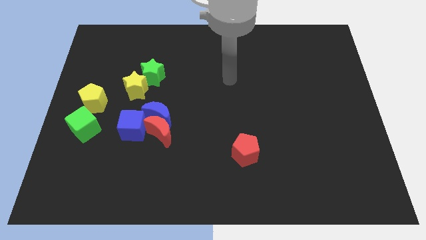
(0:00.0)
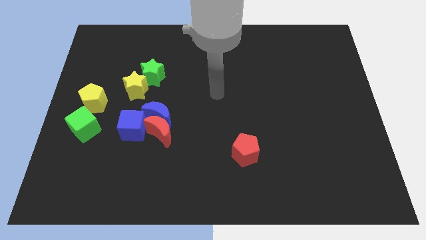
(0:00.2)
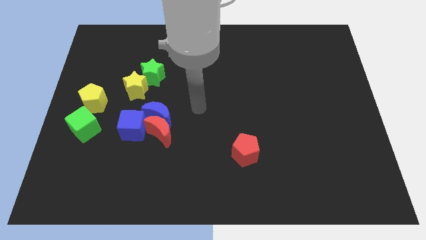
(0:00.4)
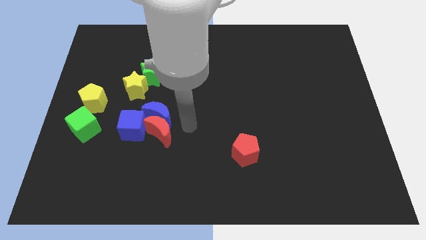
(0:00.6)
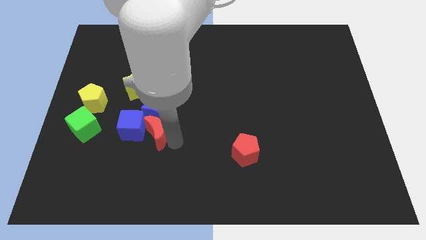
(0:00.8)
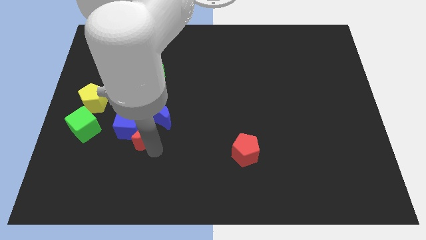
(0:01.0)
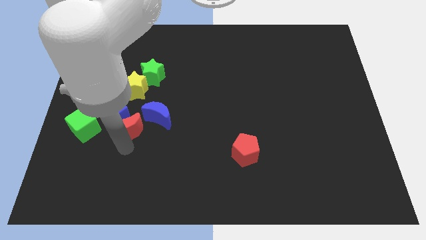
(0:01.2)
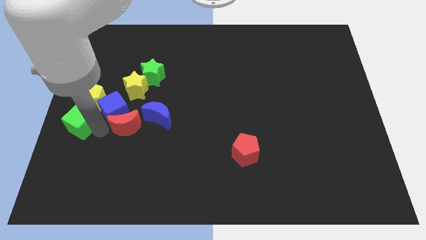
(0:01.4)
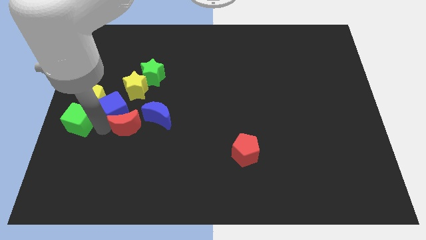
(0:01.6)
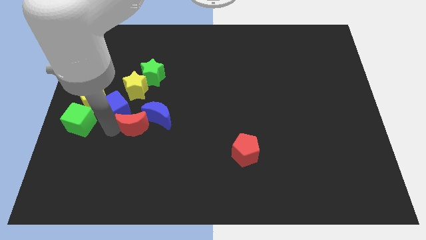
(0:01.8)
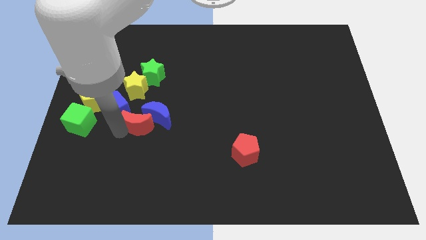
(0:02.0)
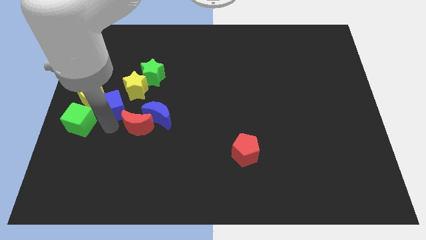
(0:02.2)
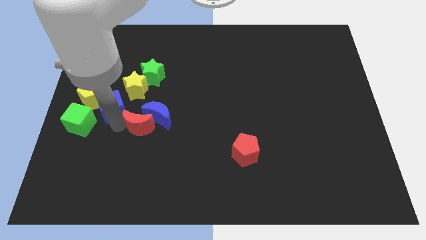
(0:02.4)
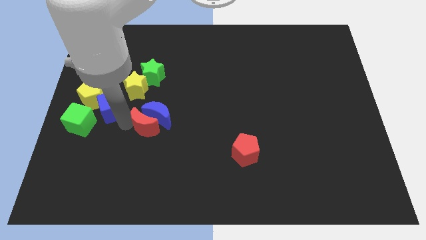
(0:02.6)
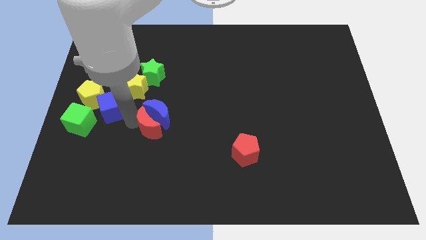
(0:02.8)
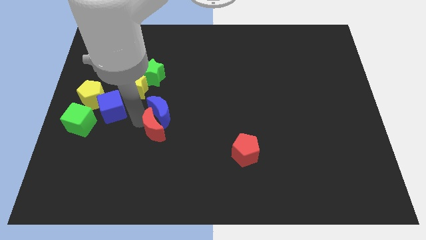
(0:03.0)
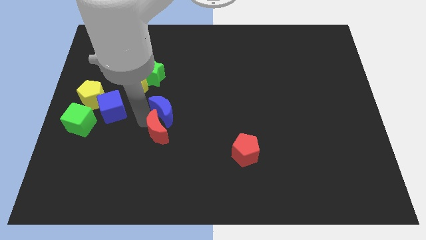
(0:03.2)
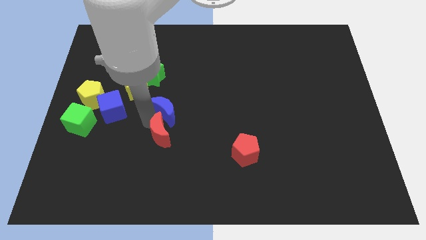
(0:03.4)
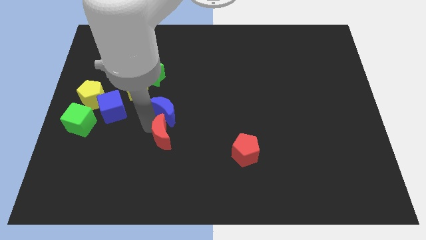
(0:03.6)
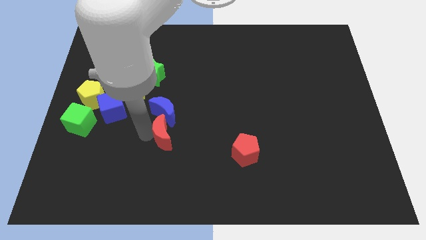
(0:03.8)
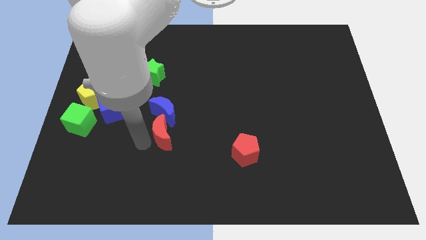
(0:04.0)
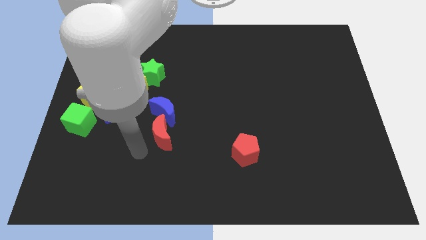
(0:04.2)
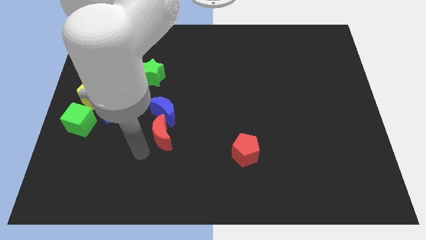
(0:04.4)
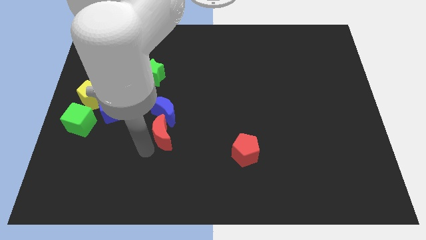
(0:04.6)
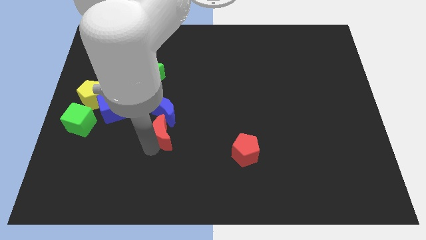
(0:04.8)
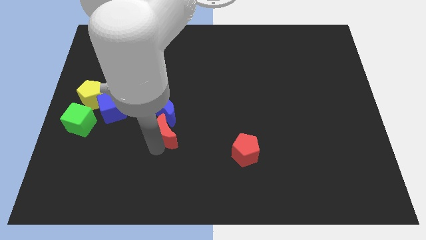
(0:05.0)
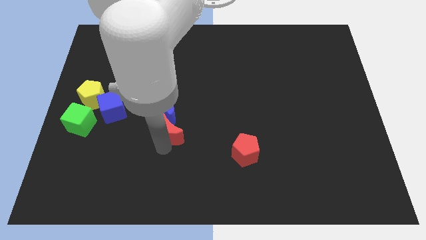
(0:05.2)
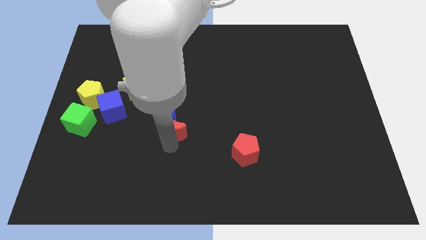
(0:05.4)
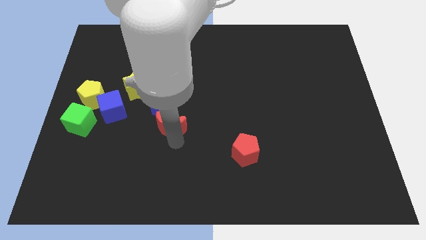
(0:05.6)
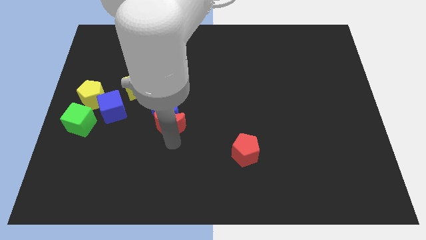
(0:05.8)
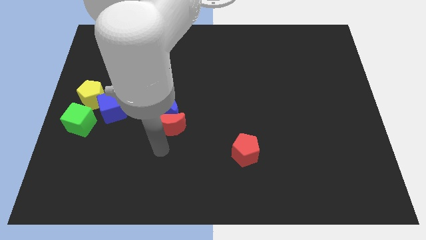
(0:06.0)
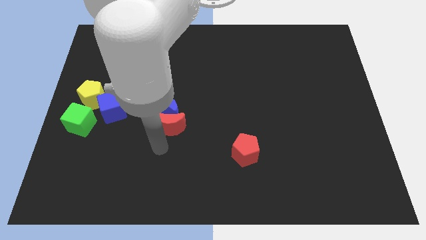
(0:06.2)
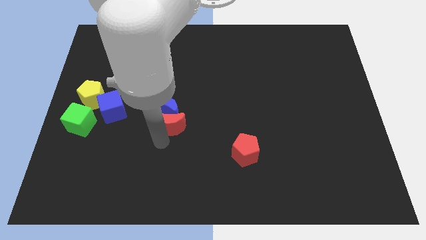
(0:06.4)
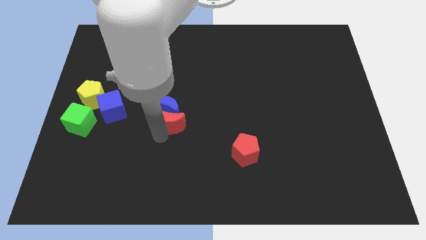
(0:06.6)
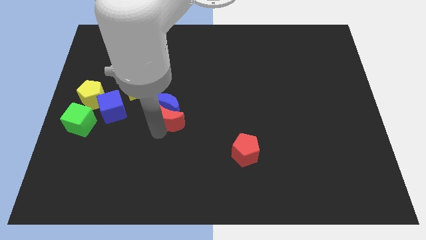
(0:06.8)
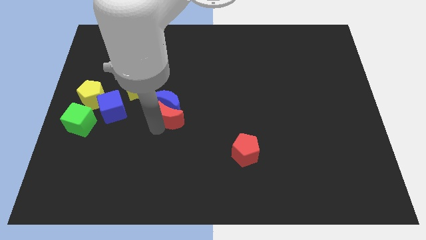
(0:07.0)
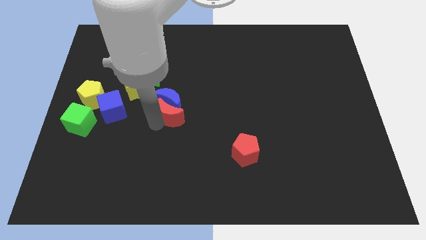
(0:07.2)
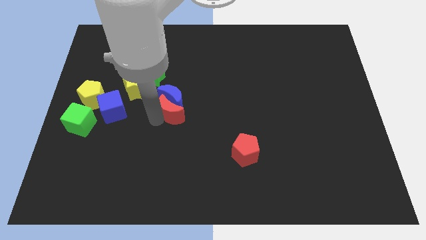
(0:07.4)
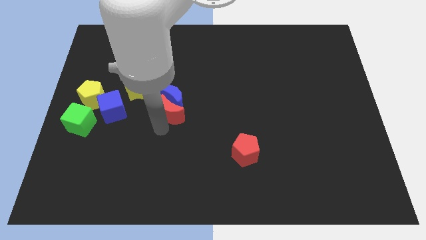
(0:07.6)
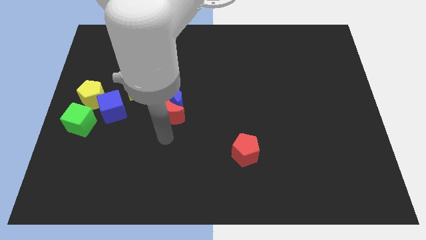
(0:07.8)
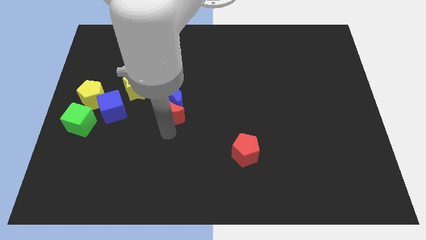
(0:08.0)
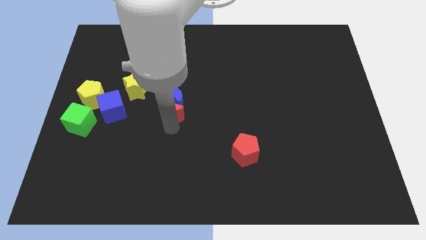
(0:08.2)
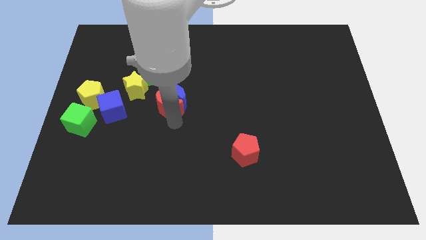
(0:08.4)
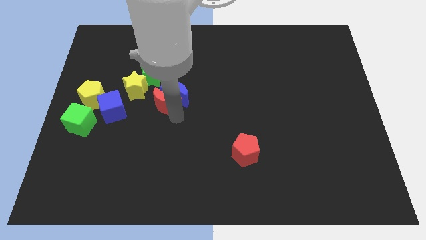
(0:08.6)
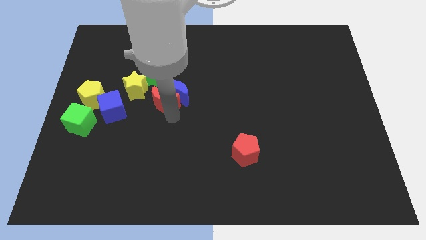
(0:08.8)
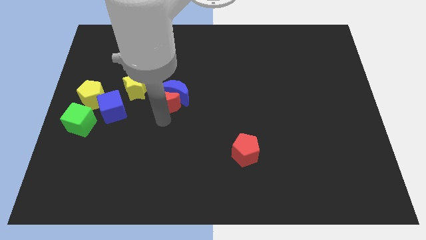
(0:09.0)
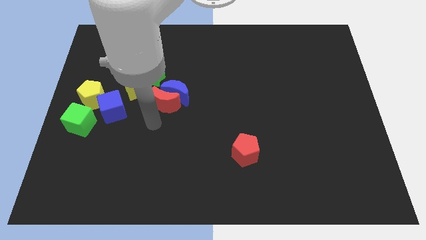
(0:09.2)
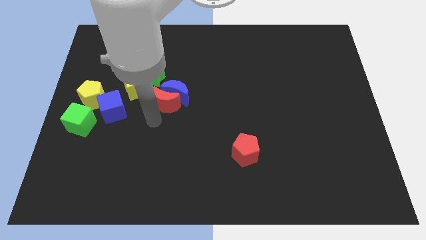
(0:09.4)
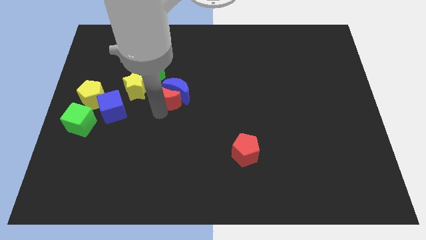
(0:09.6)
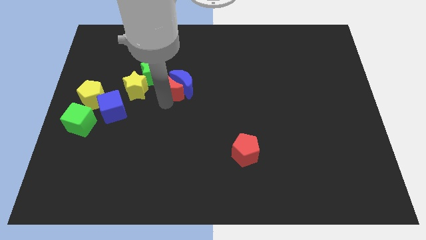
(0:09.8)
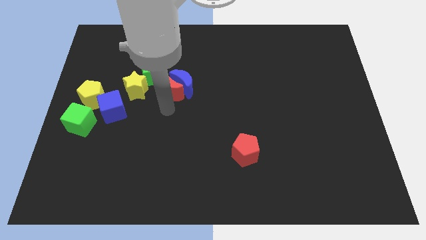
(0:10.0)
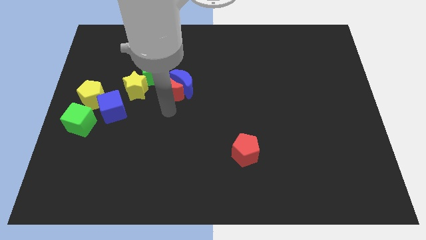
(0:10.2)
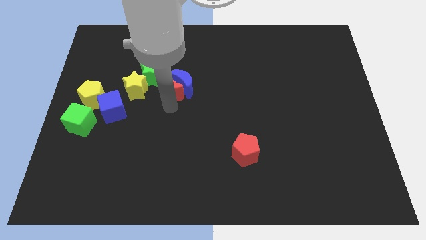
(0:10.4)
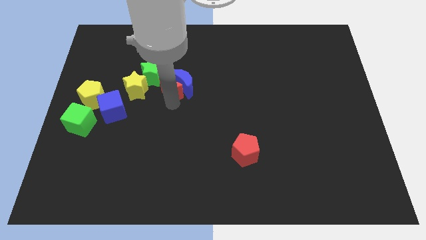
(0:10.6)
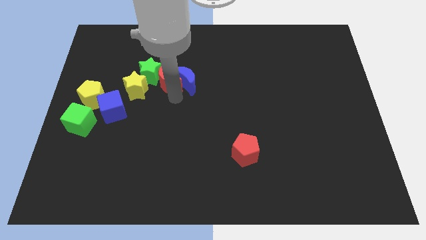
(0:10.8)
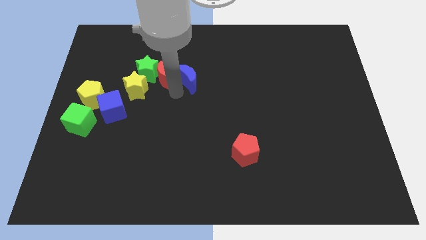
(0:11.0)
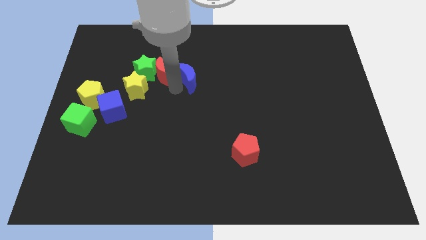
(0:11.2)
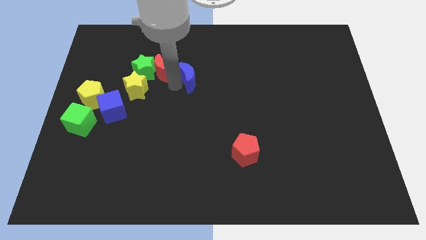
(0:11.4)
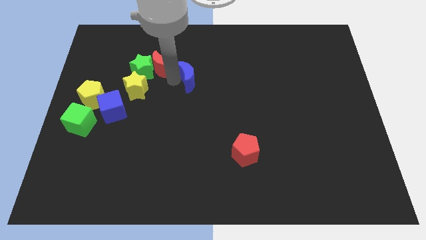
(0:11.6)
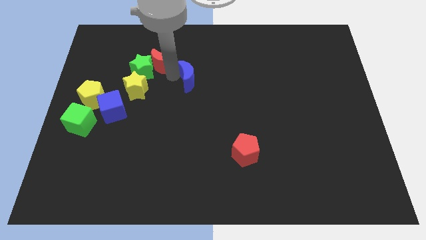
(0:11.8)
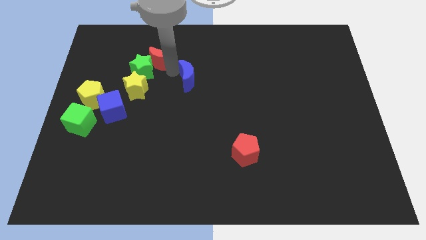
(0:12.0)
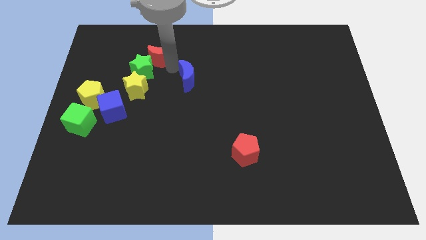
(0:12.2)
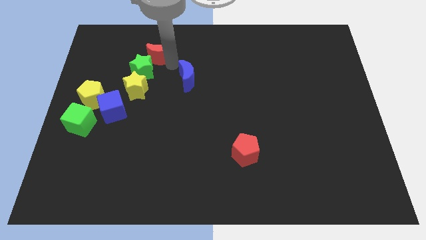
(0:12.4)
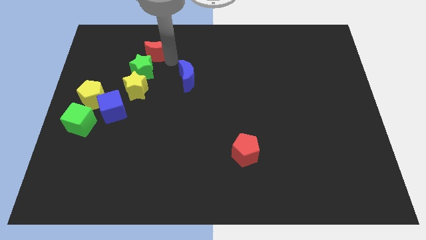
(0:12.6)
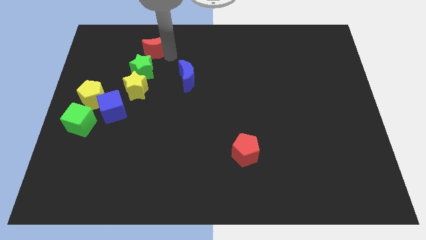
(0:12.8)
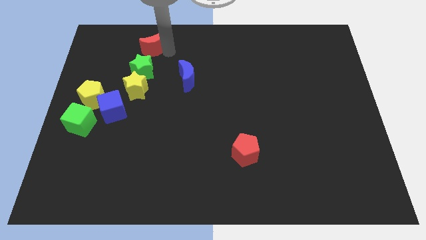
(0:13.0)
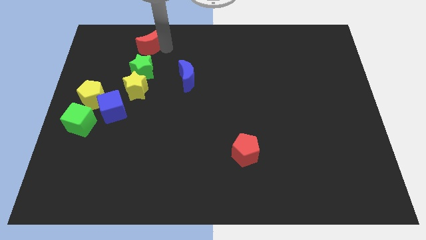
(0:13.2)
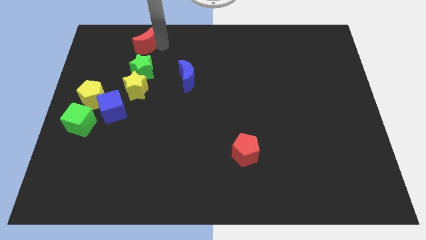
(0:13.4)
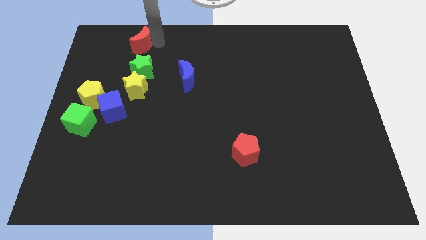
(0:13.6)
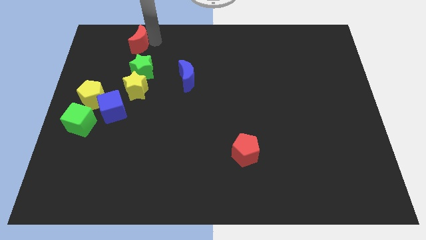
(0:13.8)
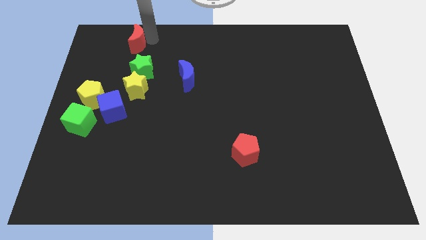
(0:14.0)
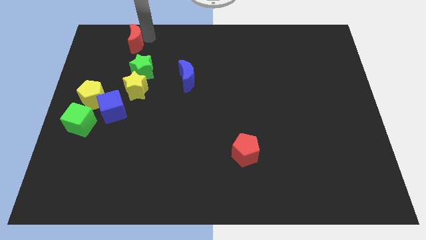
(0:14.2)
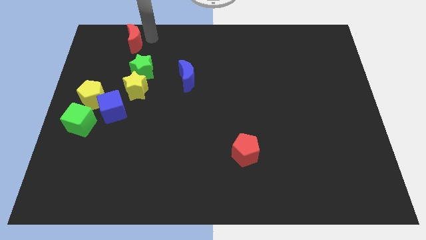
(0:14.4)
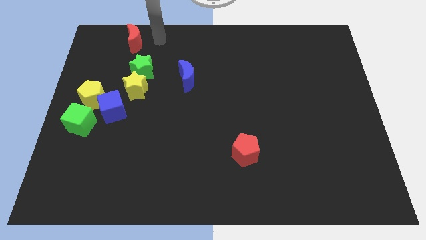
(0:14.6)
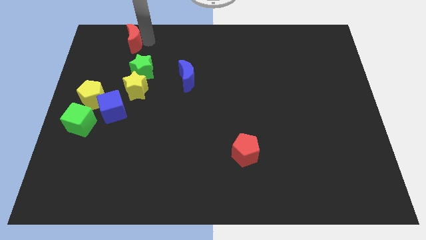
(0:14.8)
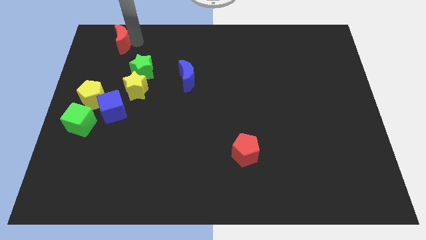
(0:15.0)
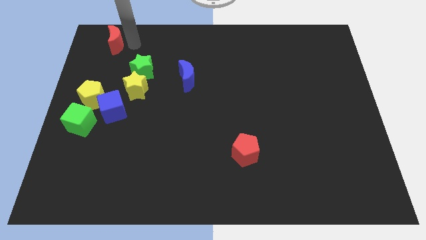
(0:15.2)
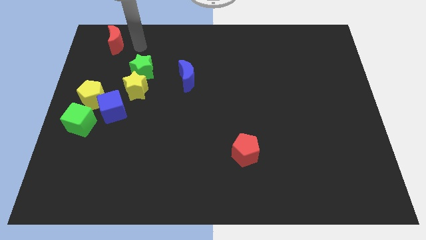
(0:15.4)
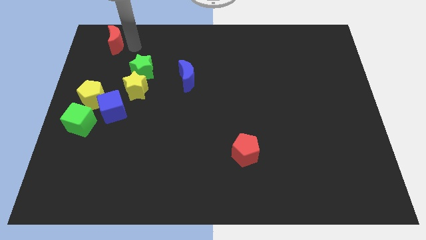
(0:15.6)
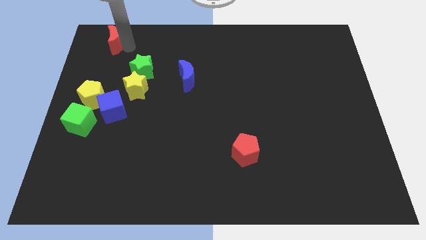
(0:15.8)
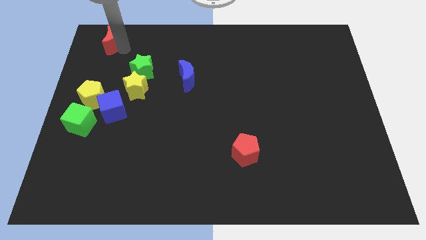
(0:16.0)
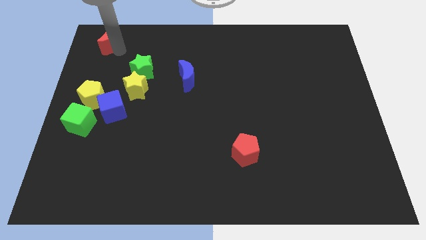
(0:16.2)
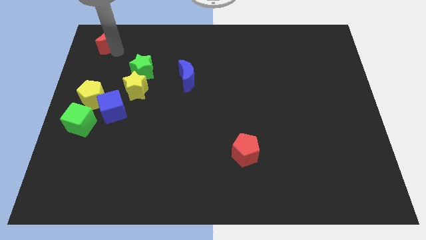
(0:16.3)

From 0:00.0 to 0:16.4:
push the red moon to the top left corner

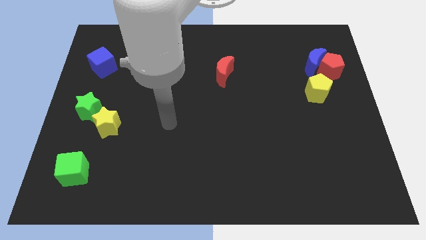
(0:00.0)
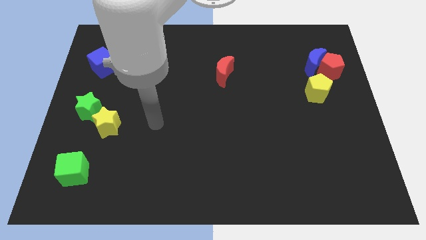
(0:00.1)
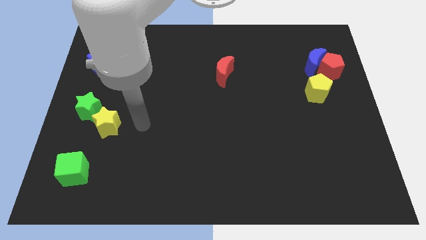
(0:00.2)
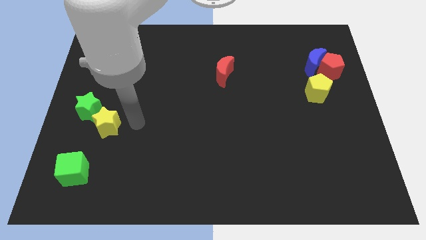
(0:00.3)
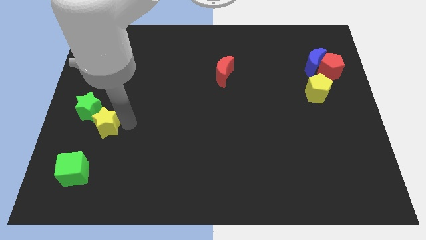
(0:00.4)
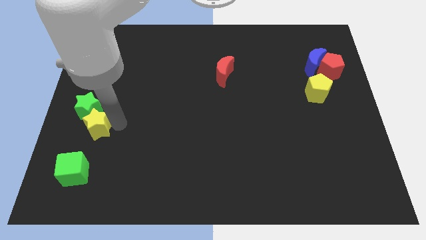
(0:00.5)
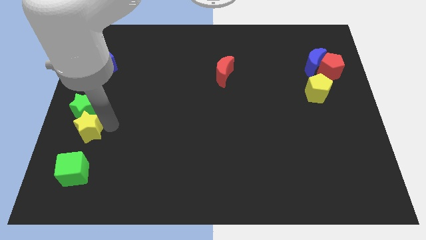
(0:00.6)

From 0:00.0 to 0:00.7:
move the yellow star to the center left
